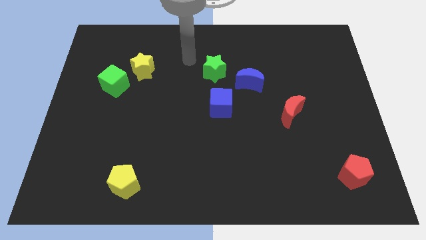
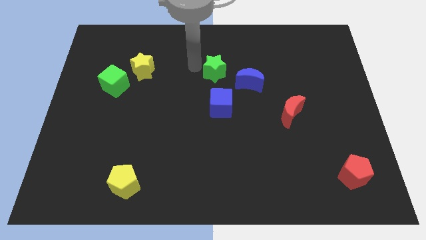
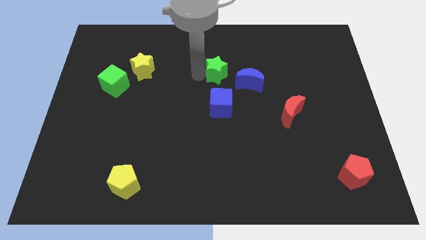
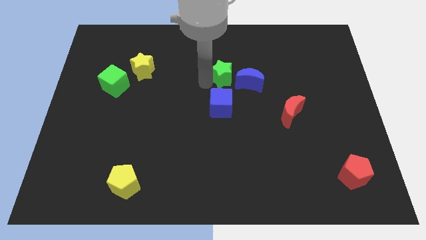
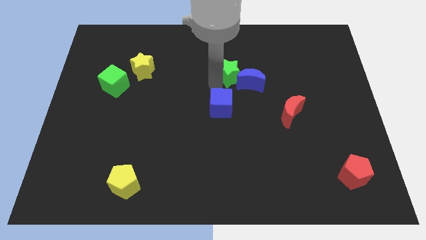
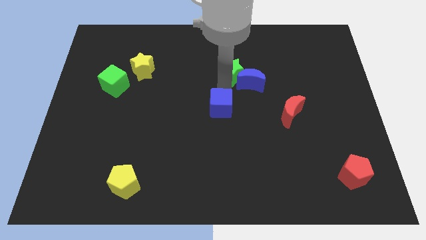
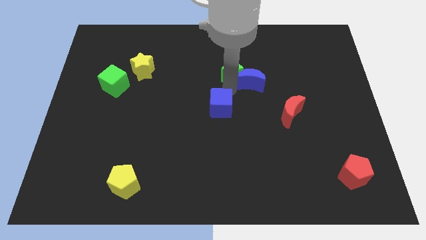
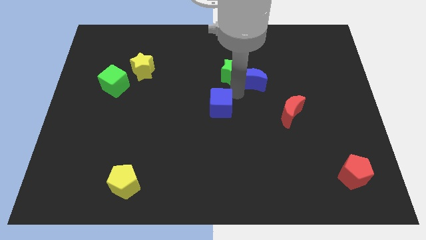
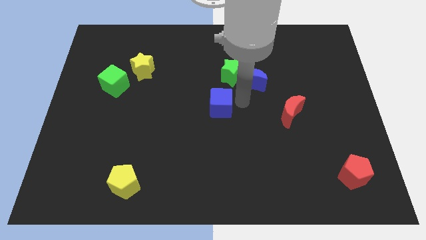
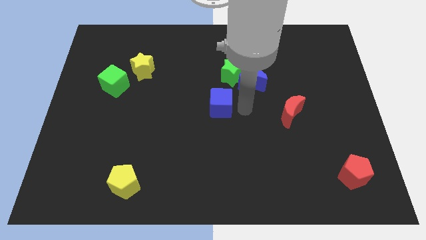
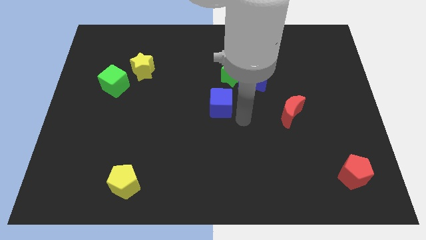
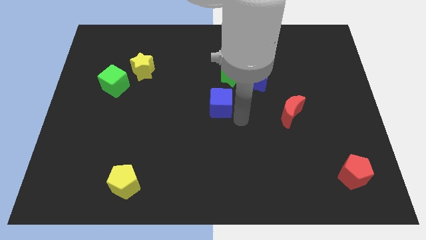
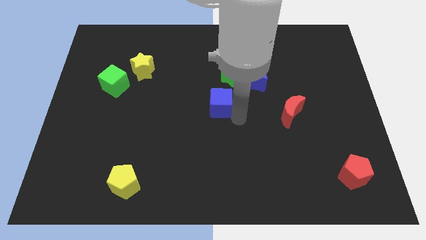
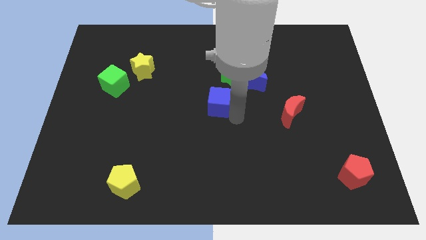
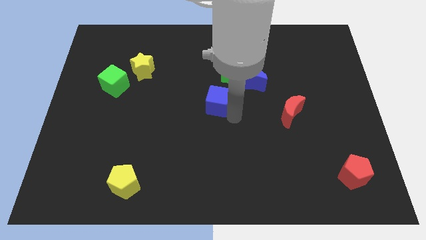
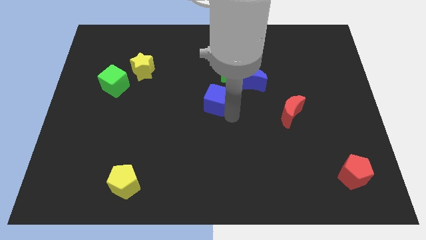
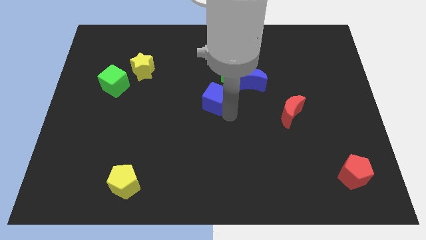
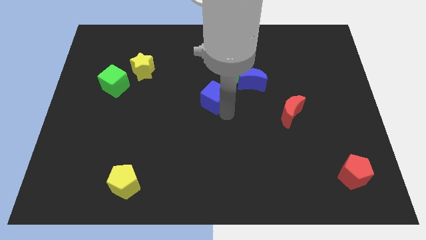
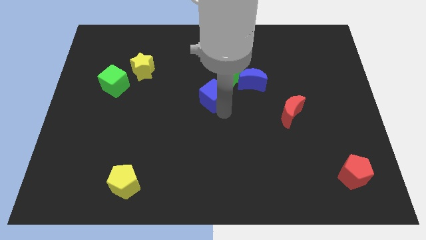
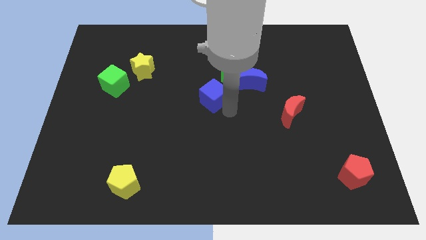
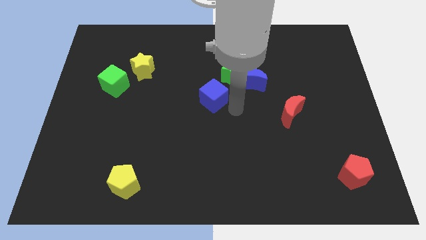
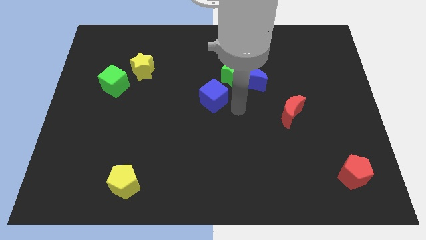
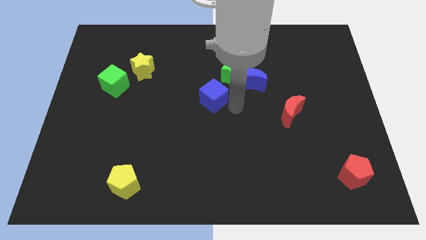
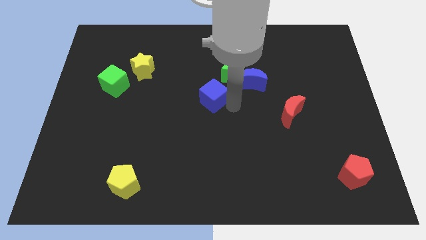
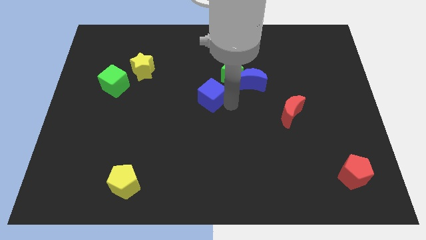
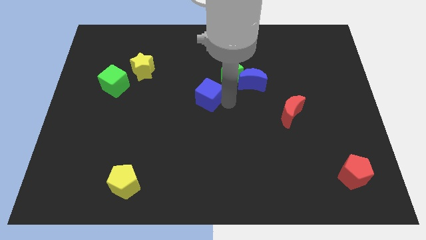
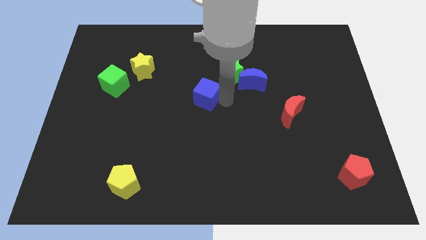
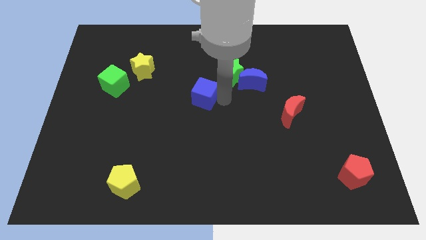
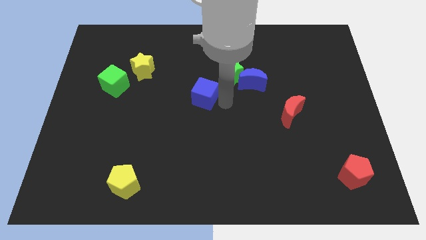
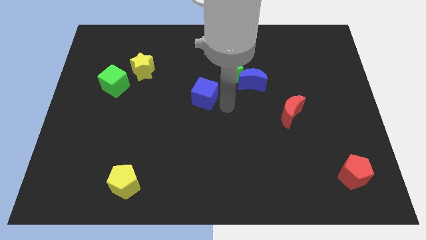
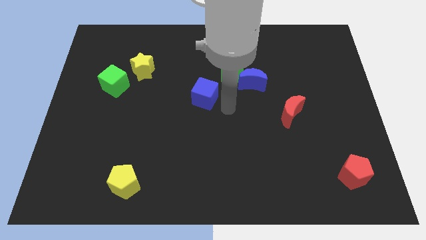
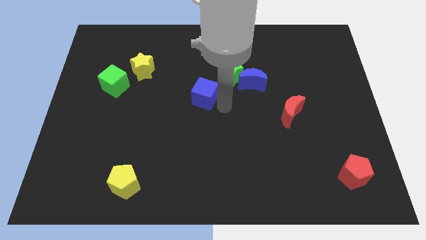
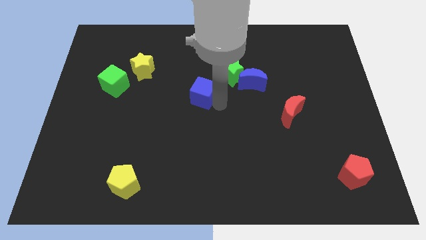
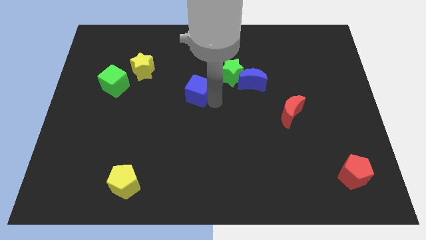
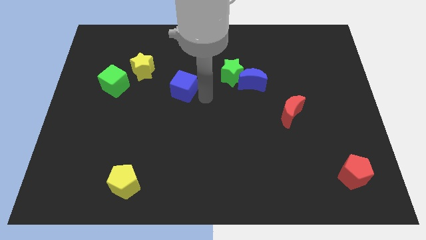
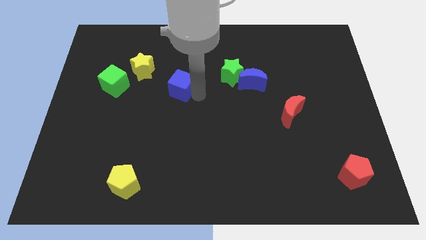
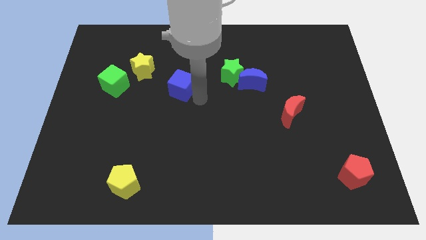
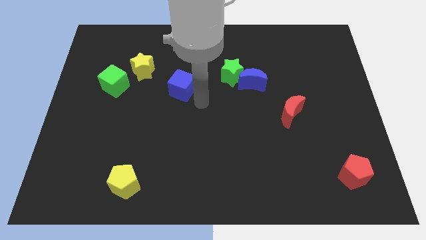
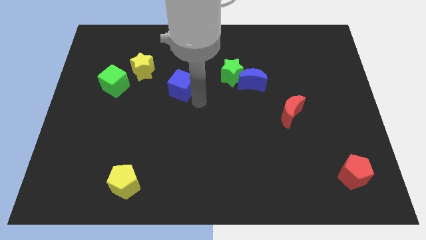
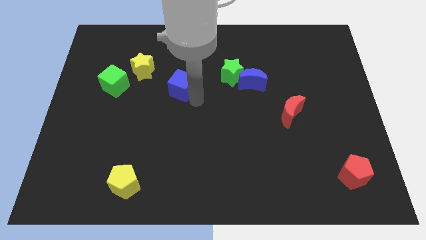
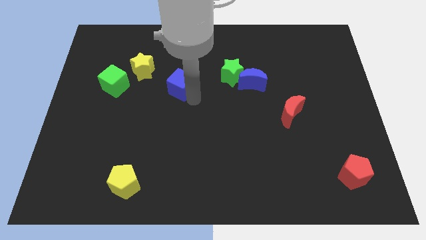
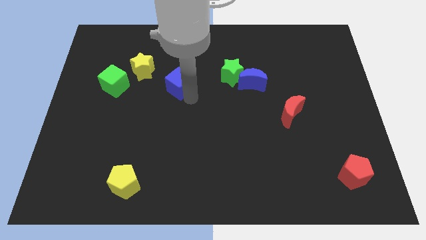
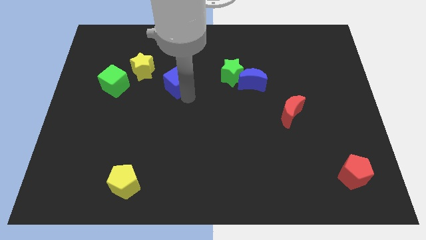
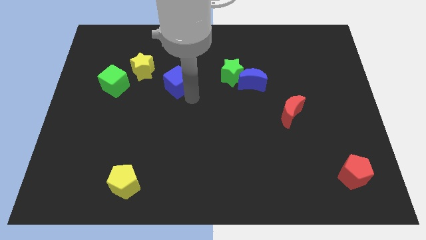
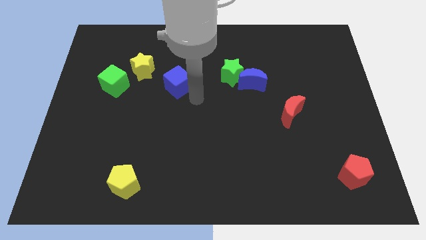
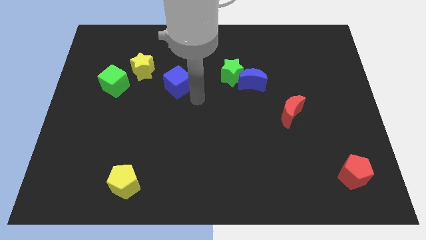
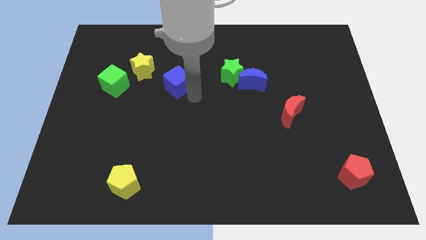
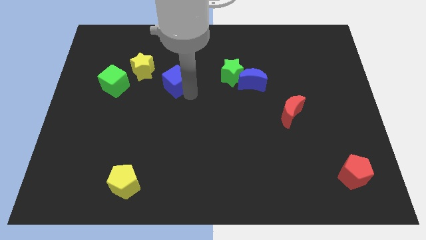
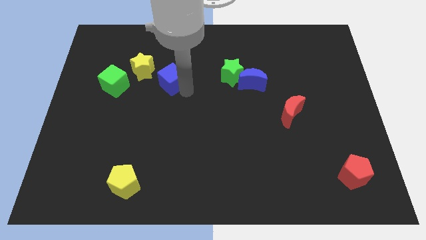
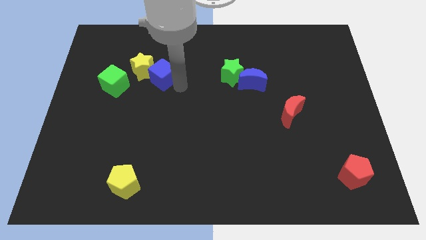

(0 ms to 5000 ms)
push the blue cube towards the yellow star

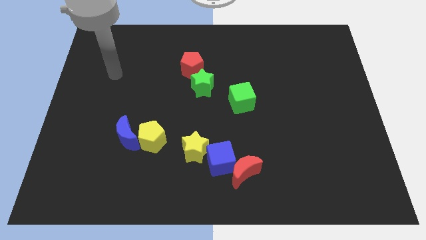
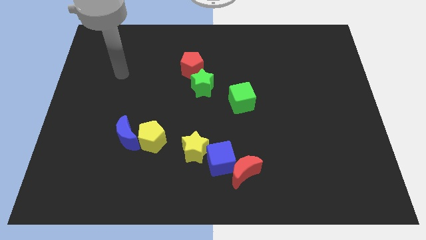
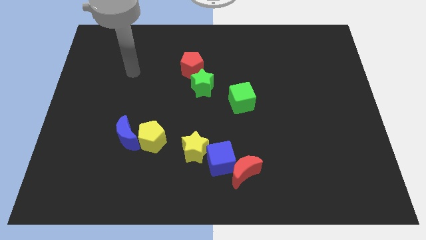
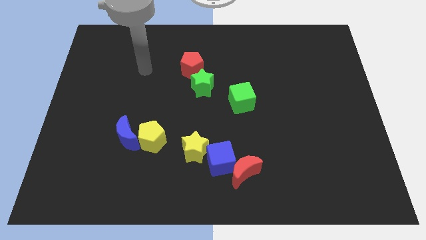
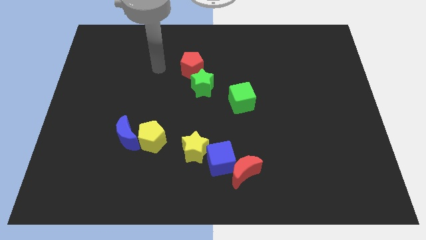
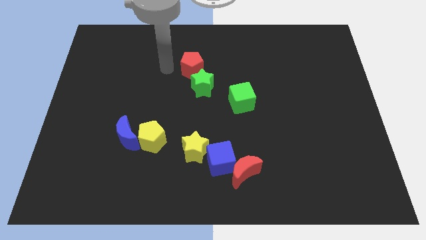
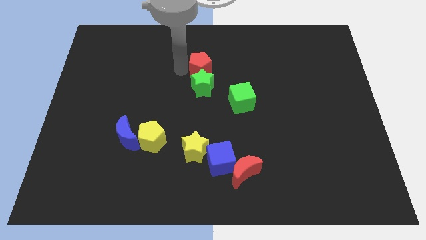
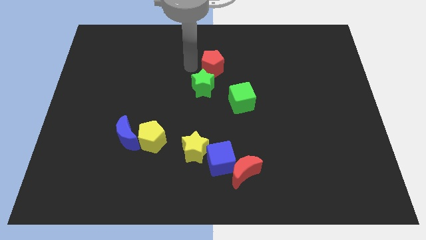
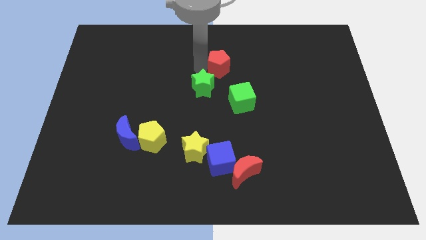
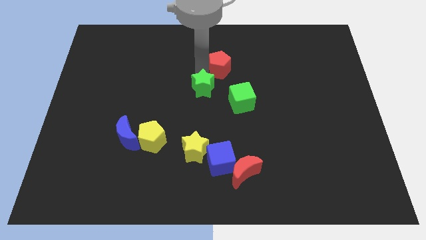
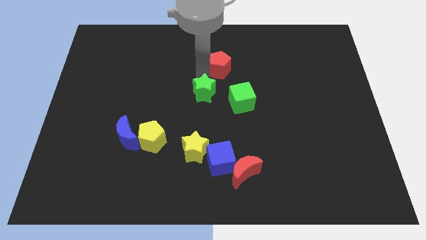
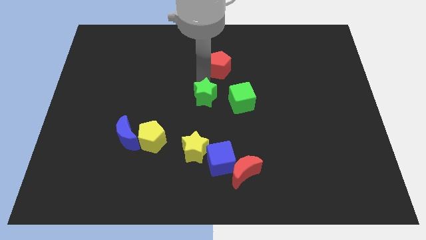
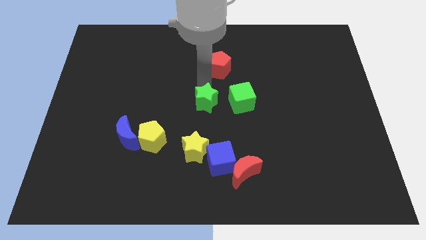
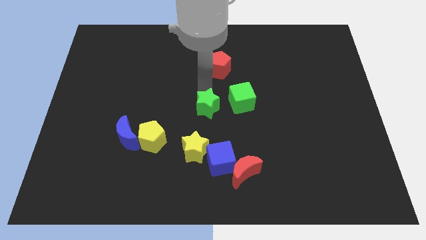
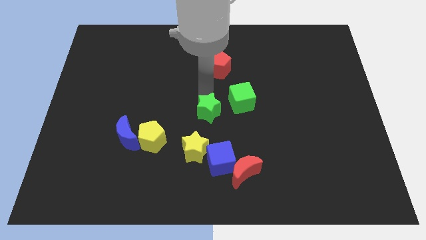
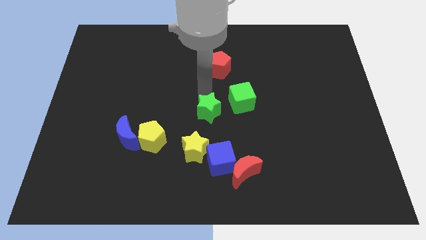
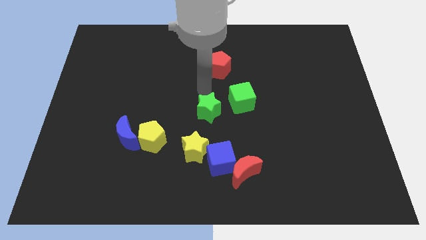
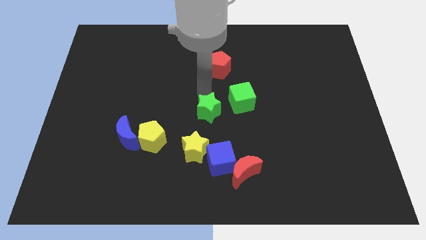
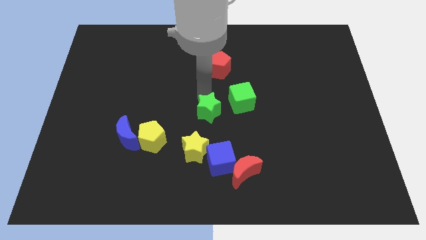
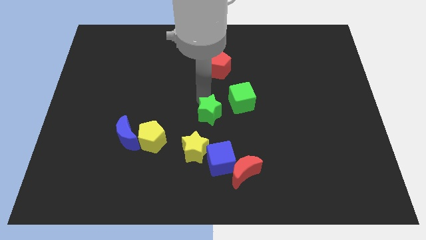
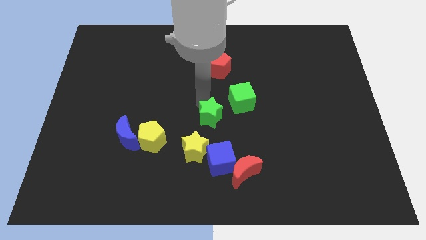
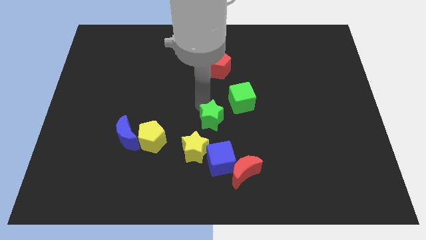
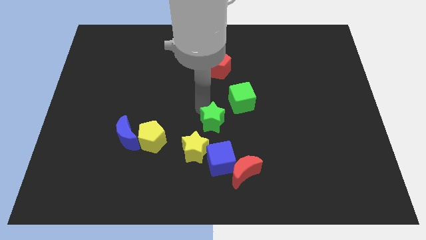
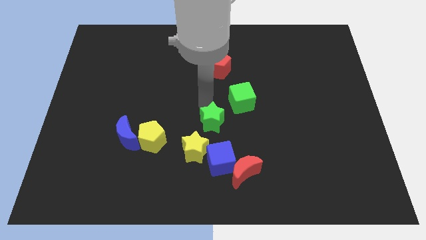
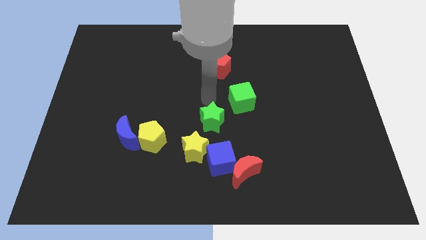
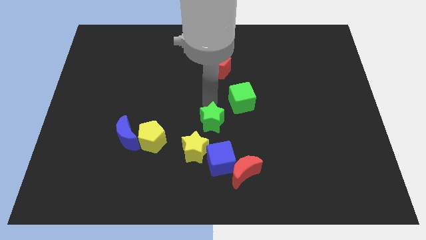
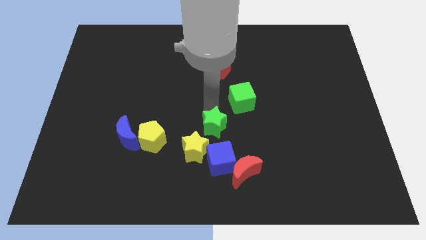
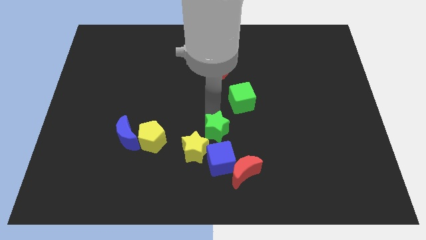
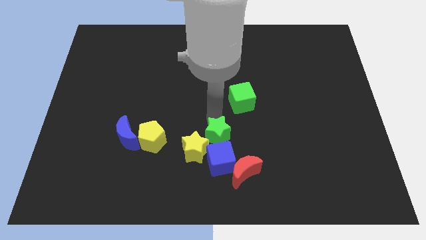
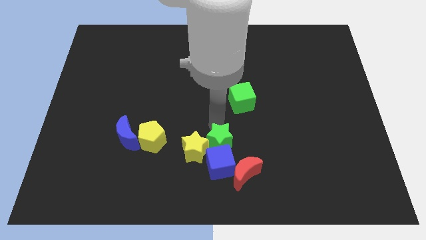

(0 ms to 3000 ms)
slide the green star close to the blue cube
